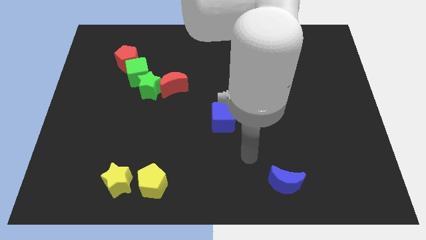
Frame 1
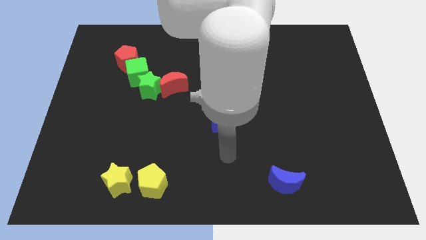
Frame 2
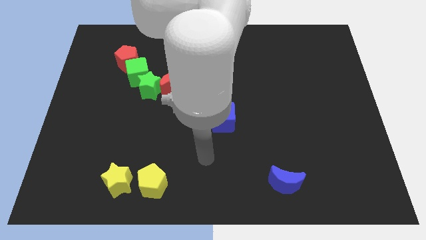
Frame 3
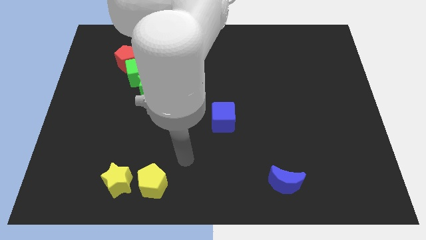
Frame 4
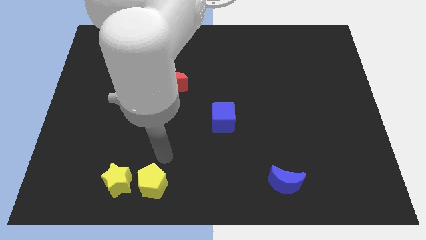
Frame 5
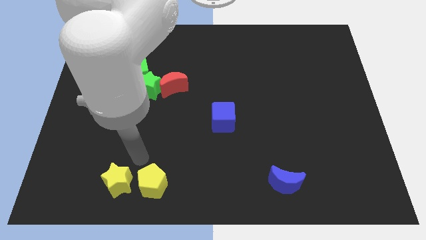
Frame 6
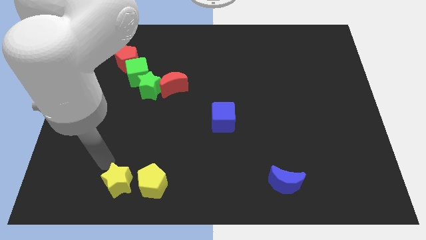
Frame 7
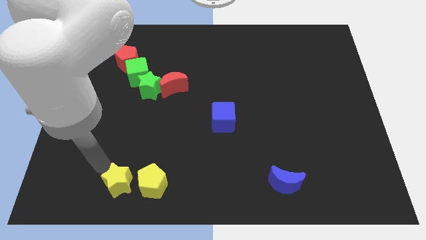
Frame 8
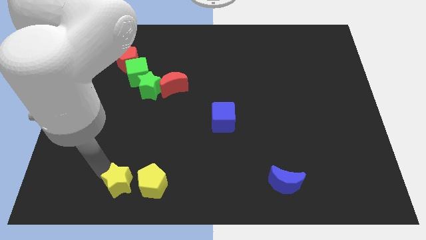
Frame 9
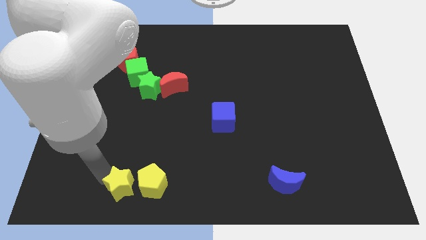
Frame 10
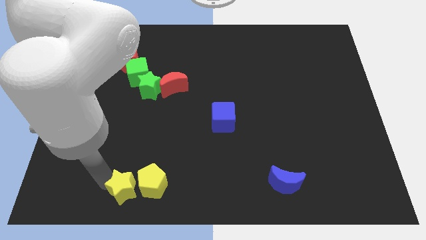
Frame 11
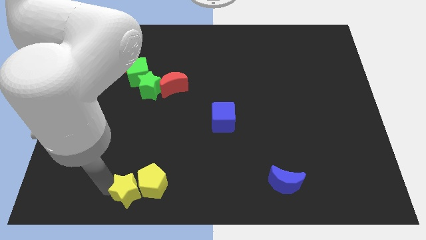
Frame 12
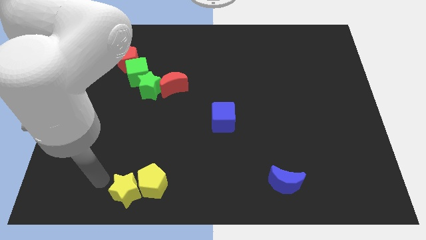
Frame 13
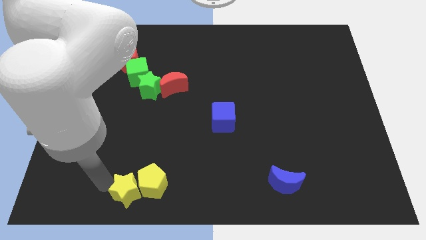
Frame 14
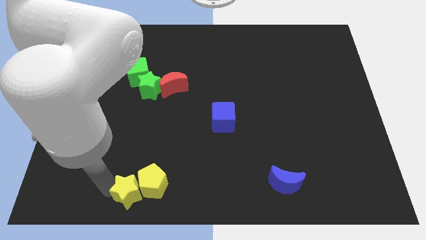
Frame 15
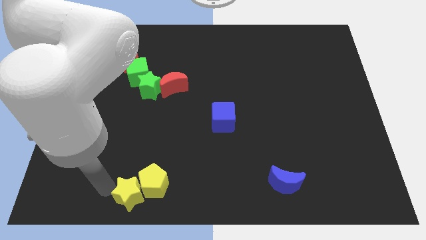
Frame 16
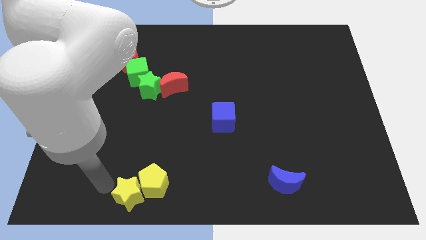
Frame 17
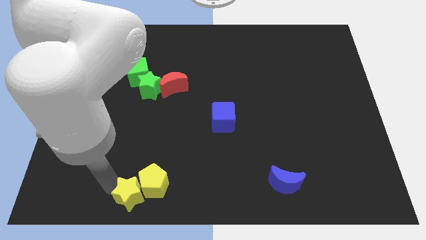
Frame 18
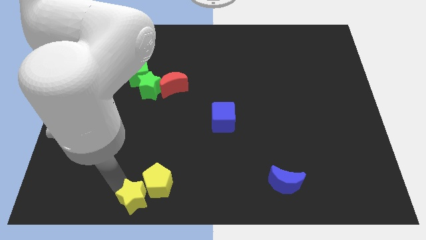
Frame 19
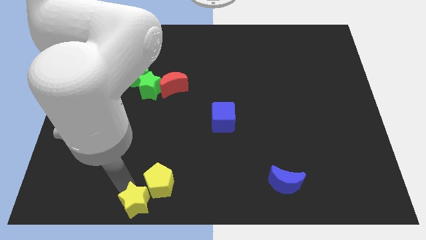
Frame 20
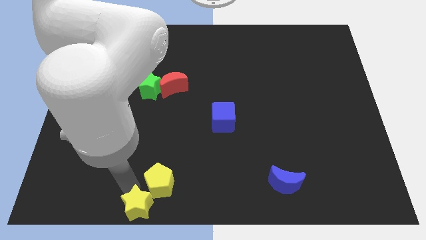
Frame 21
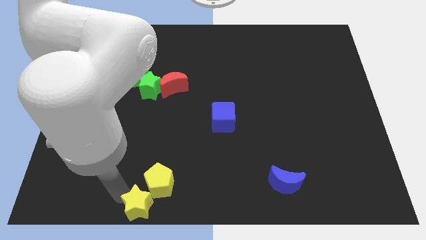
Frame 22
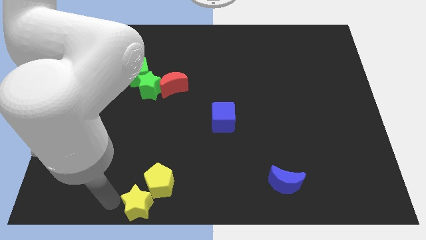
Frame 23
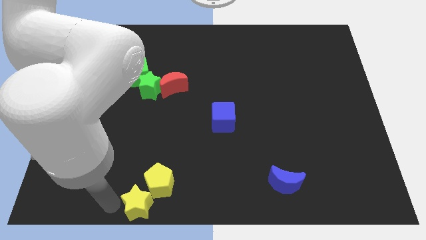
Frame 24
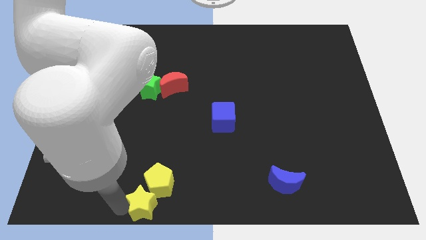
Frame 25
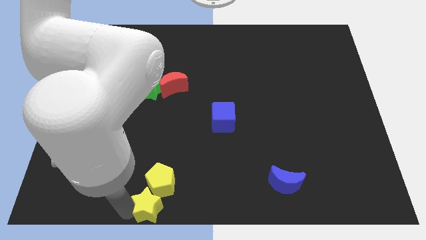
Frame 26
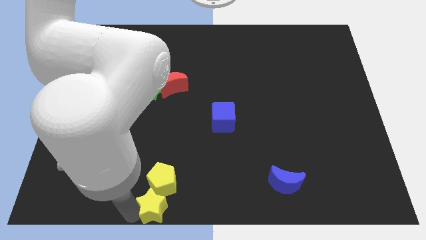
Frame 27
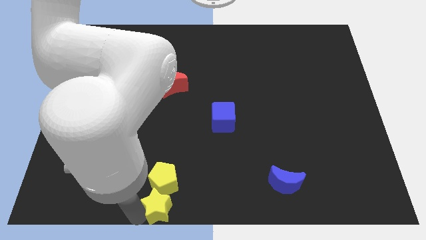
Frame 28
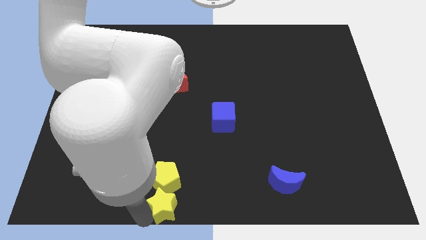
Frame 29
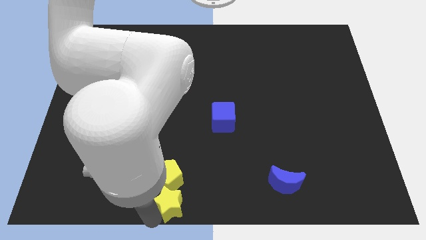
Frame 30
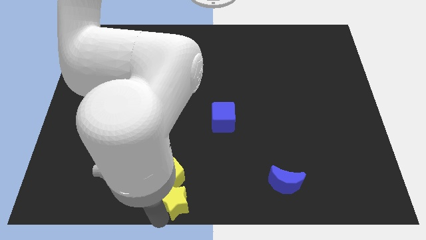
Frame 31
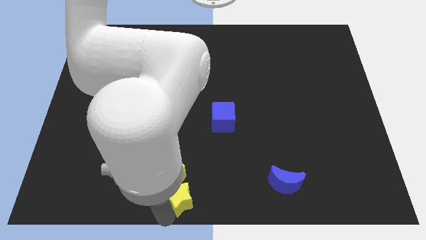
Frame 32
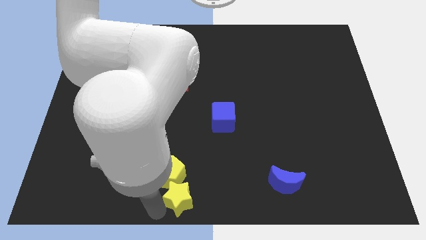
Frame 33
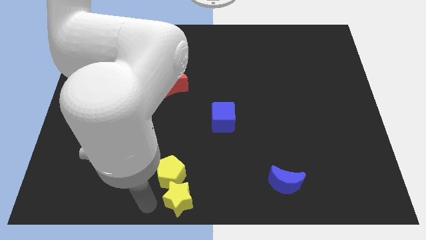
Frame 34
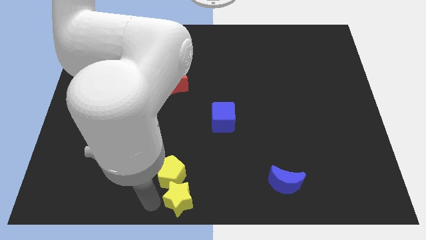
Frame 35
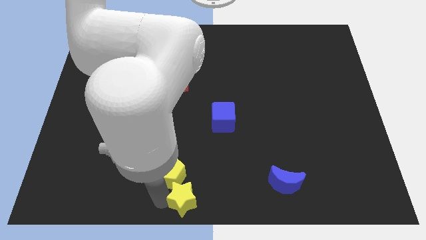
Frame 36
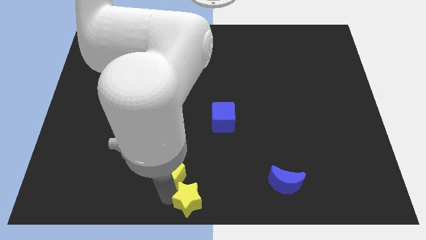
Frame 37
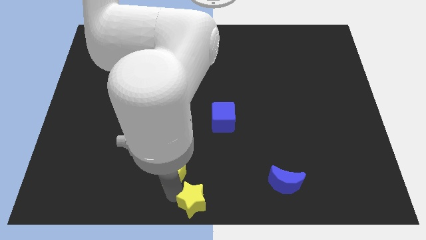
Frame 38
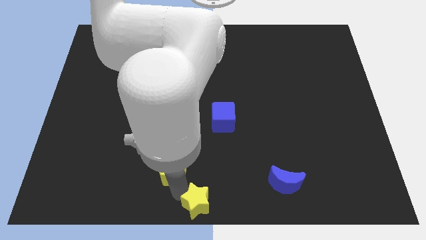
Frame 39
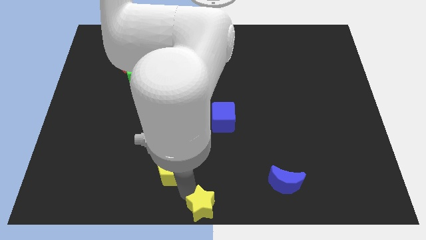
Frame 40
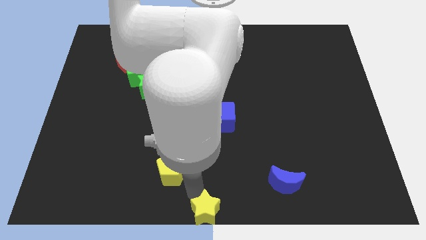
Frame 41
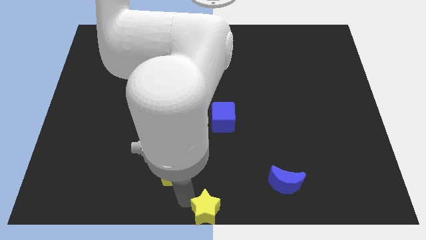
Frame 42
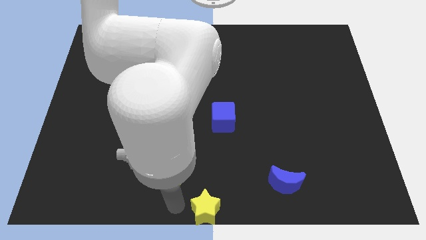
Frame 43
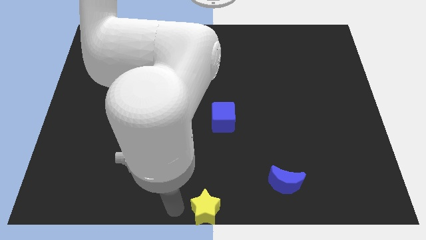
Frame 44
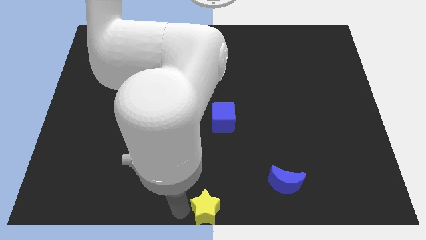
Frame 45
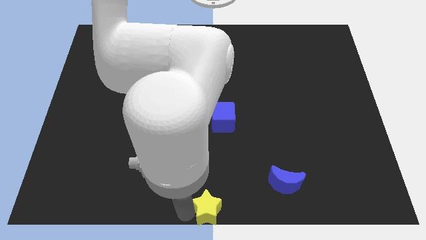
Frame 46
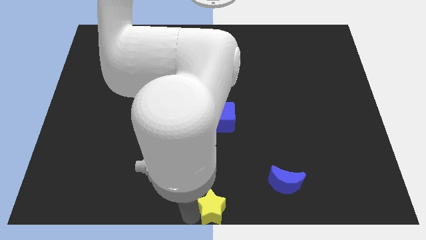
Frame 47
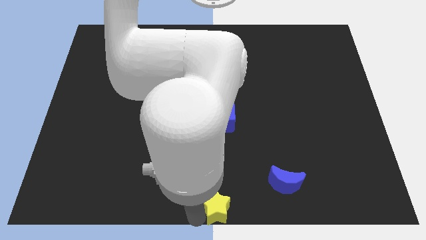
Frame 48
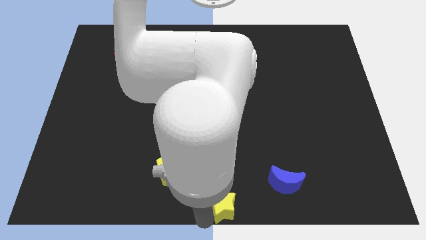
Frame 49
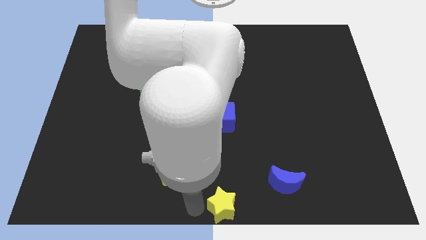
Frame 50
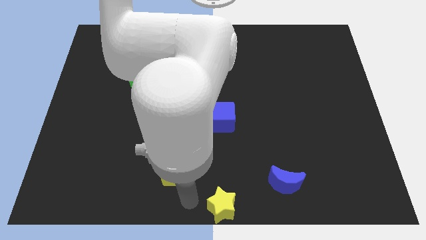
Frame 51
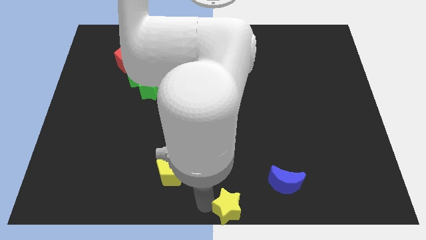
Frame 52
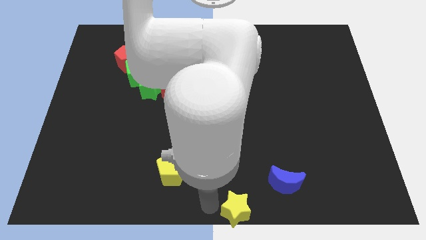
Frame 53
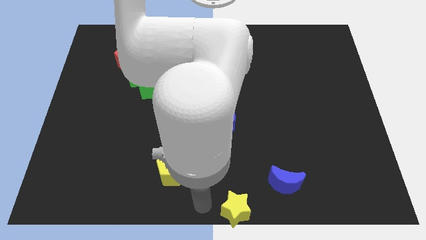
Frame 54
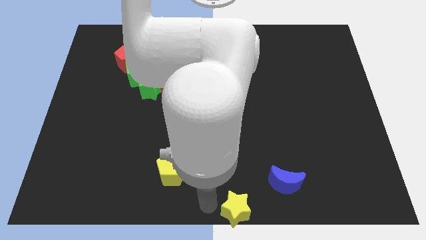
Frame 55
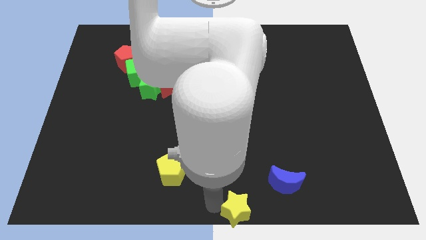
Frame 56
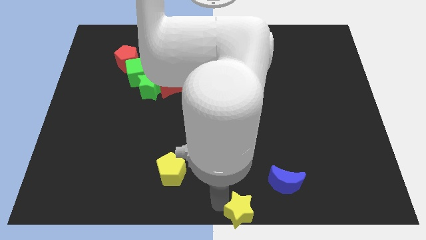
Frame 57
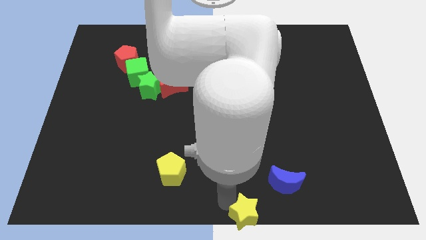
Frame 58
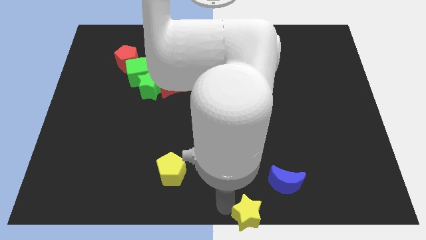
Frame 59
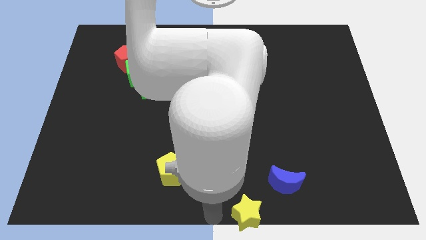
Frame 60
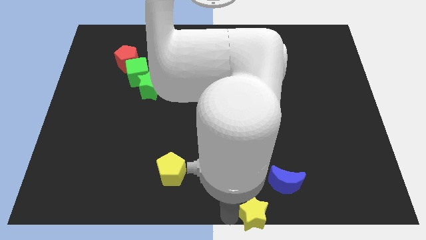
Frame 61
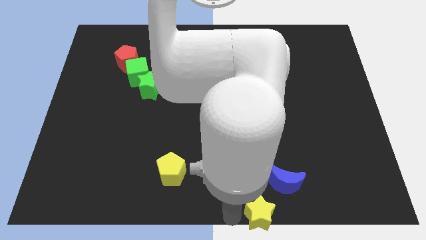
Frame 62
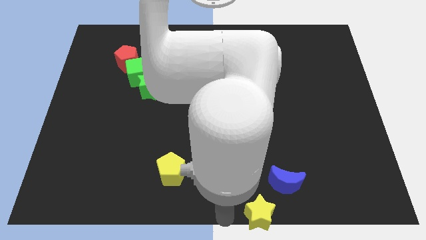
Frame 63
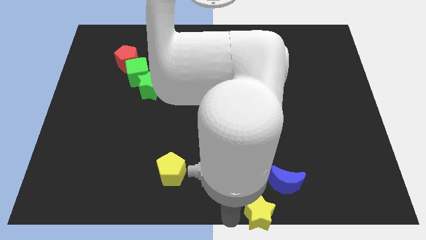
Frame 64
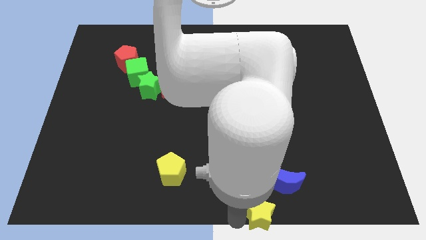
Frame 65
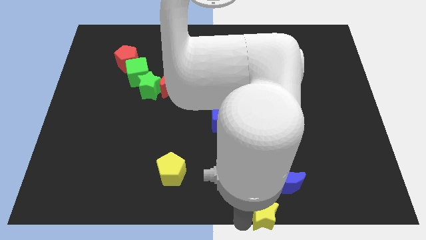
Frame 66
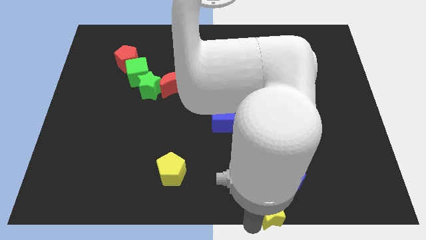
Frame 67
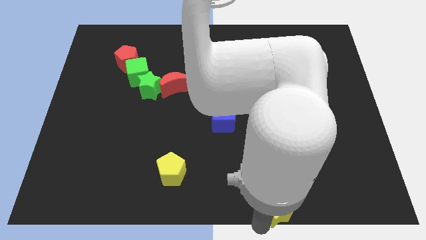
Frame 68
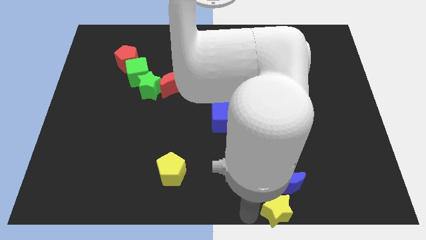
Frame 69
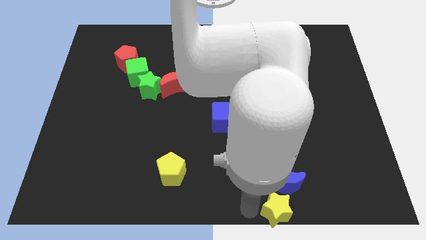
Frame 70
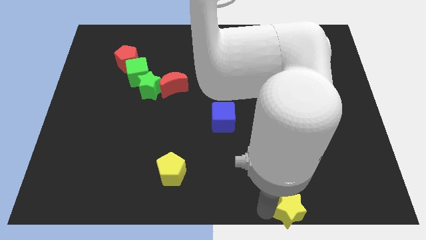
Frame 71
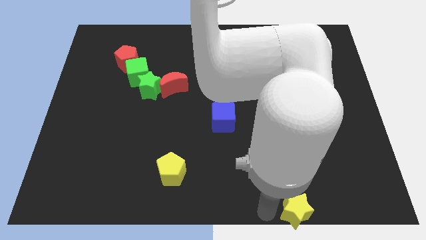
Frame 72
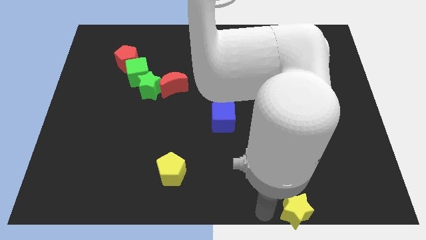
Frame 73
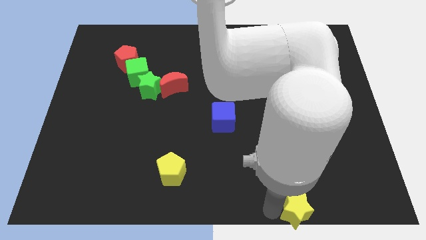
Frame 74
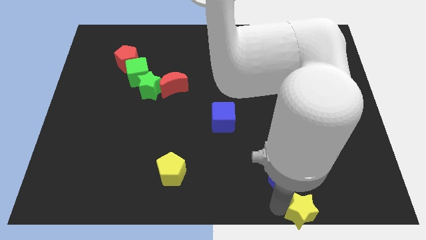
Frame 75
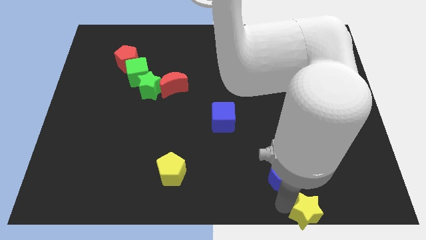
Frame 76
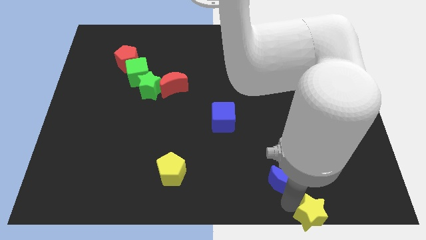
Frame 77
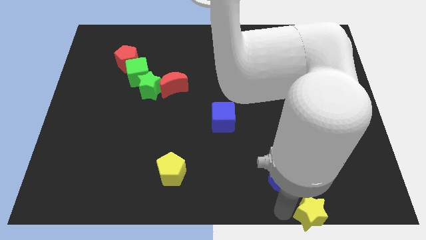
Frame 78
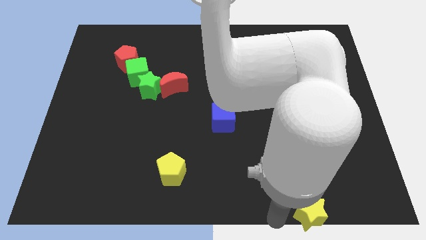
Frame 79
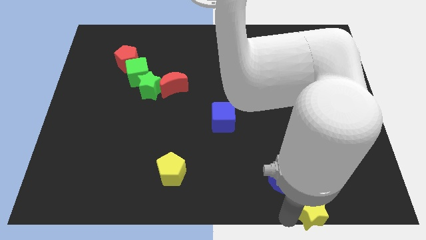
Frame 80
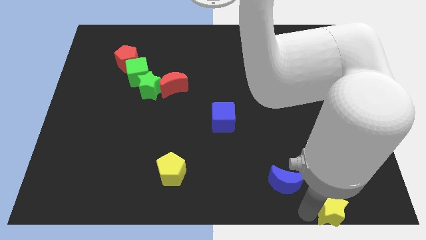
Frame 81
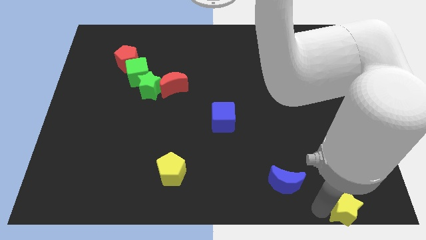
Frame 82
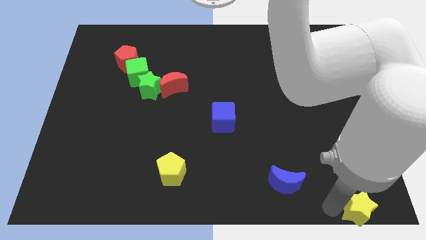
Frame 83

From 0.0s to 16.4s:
put the yellow star to the bottom right of the board
